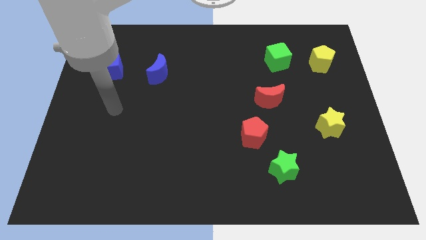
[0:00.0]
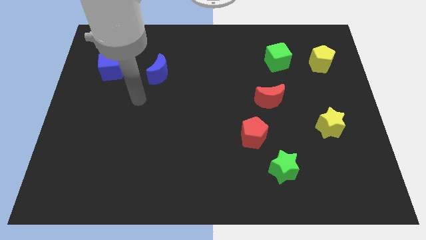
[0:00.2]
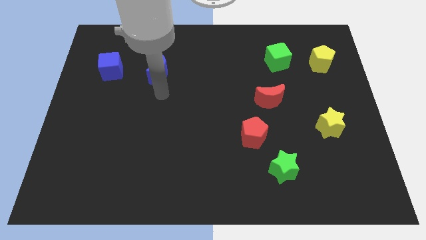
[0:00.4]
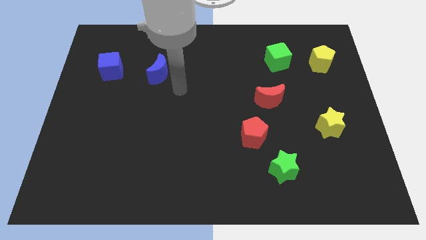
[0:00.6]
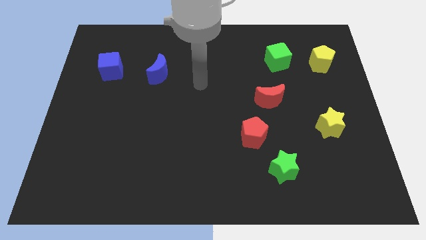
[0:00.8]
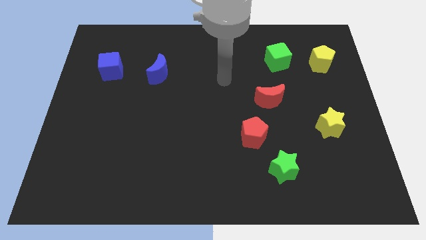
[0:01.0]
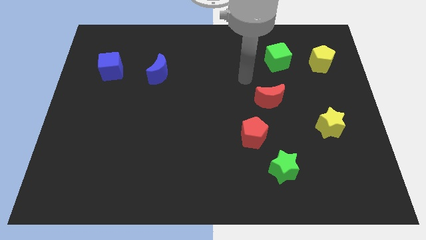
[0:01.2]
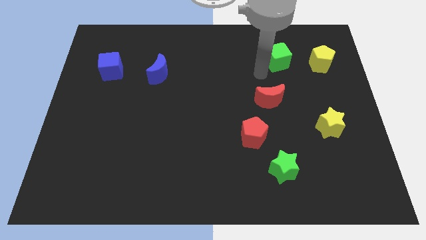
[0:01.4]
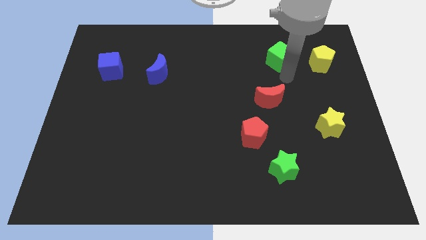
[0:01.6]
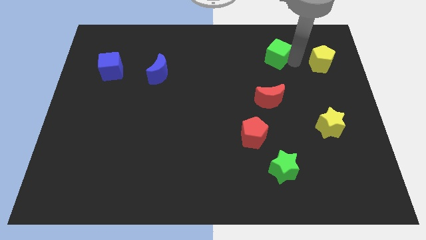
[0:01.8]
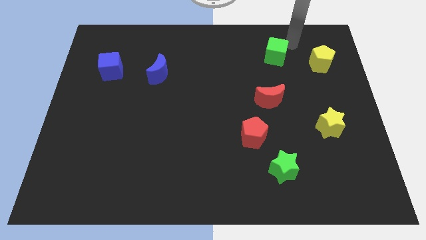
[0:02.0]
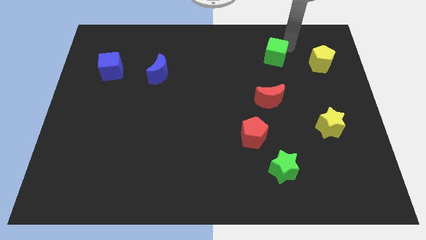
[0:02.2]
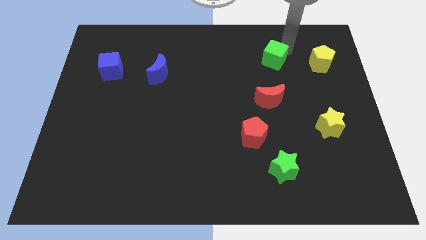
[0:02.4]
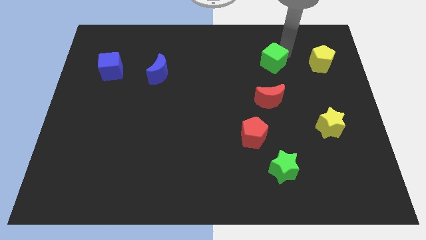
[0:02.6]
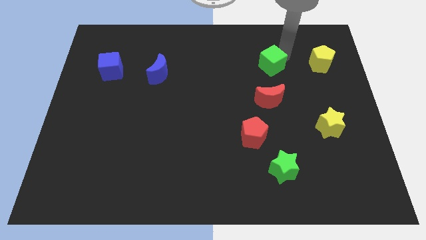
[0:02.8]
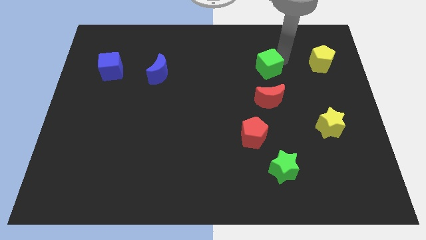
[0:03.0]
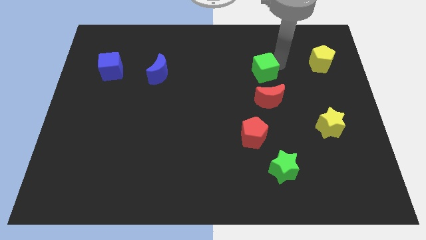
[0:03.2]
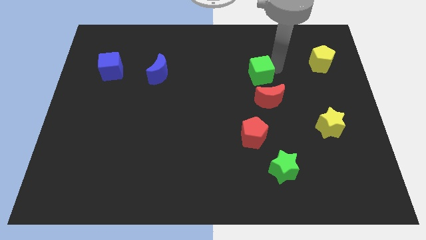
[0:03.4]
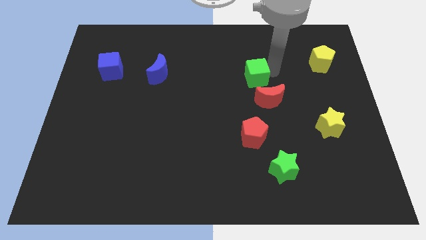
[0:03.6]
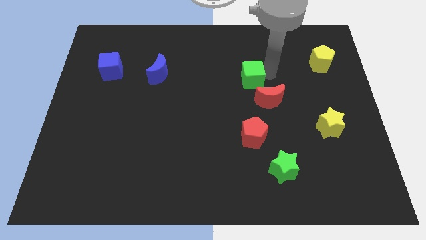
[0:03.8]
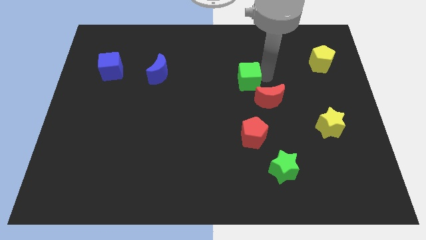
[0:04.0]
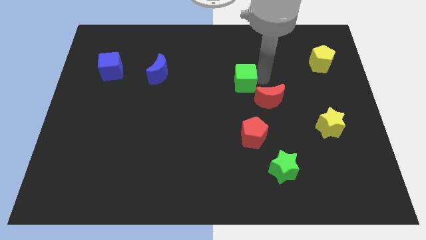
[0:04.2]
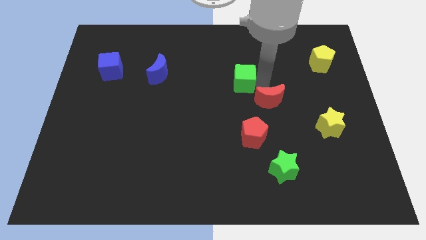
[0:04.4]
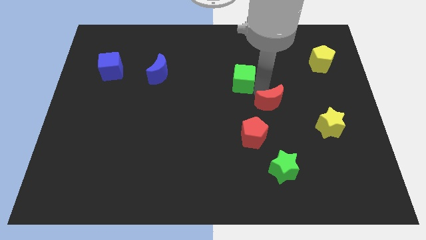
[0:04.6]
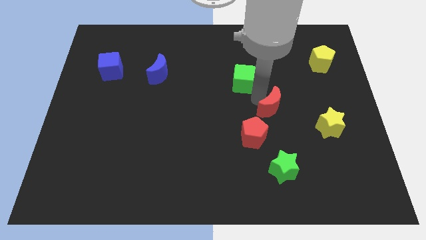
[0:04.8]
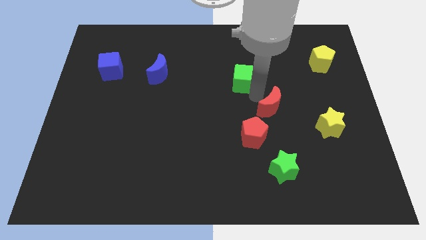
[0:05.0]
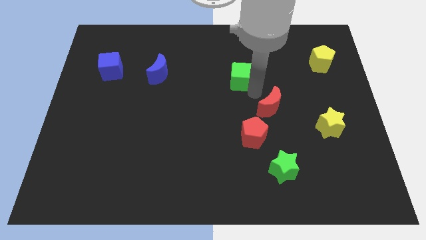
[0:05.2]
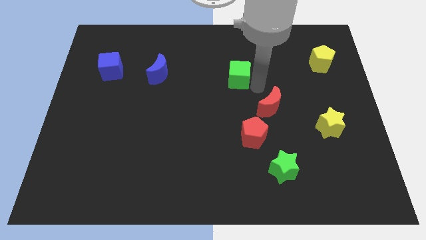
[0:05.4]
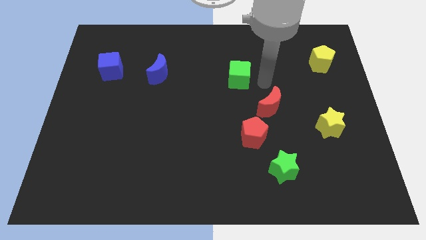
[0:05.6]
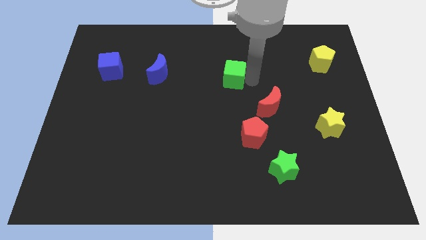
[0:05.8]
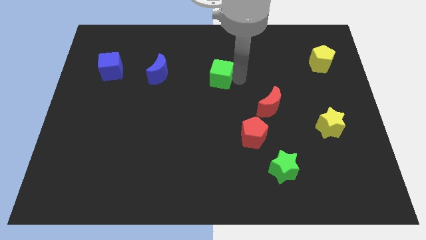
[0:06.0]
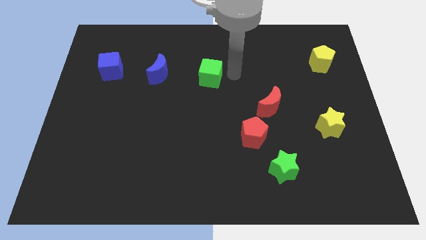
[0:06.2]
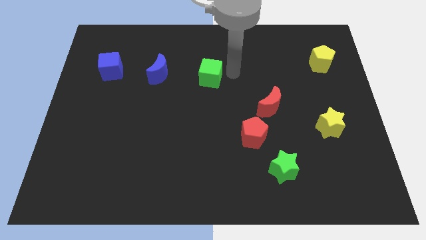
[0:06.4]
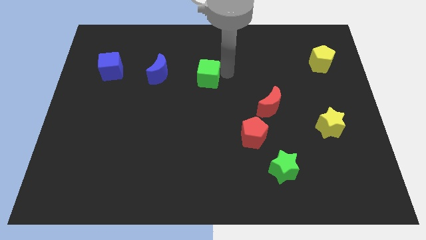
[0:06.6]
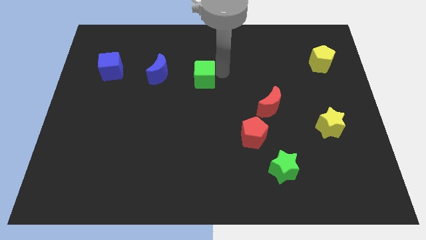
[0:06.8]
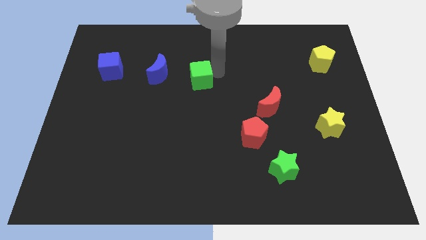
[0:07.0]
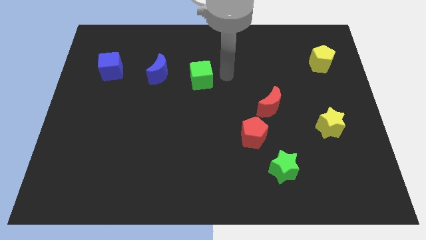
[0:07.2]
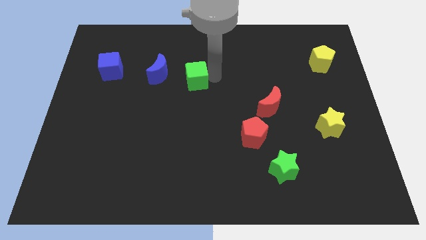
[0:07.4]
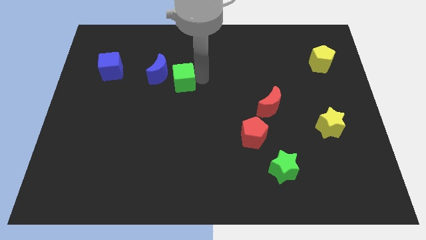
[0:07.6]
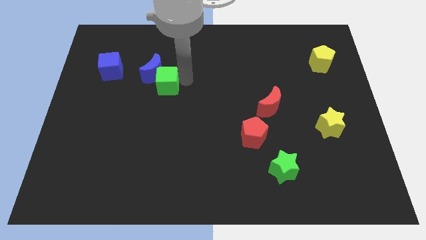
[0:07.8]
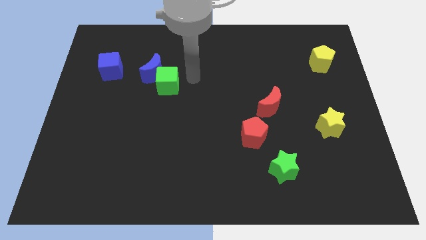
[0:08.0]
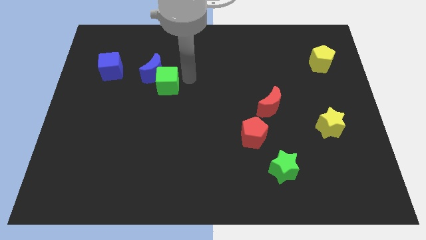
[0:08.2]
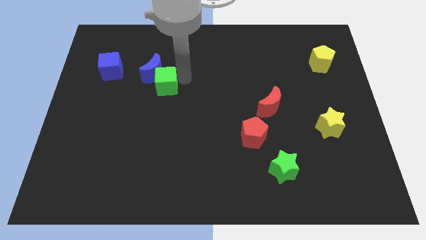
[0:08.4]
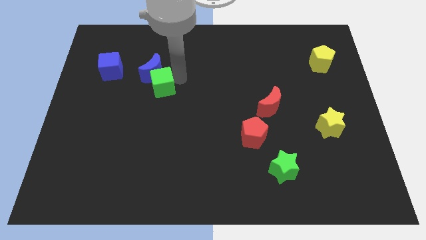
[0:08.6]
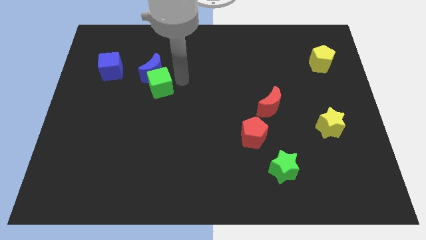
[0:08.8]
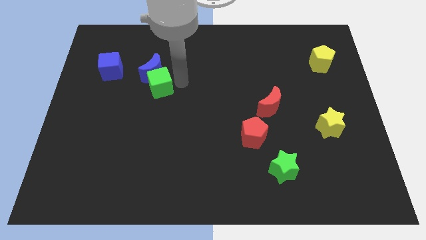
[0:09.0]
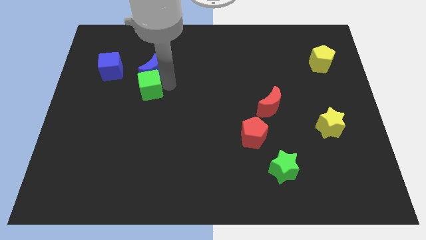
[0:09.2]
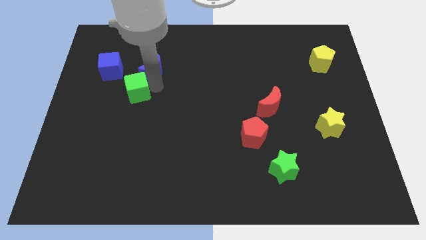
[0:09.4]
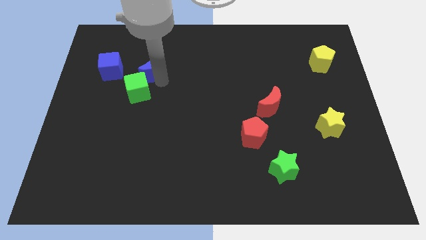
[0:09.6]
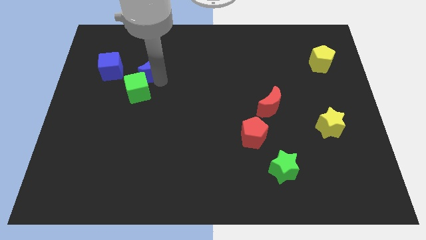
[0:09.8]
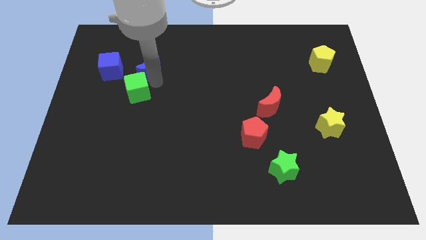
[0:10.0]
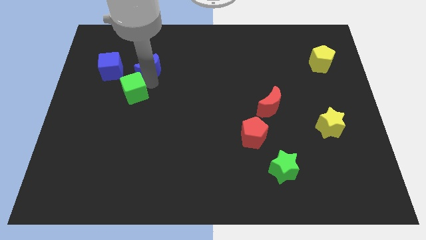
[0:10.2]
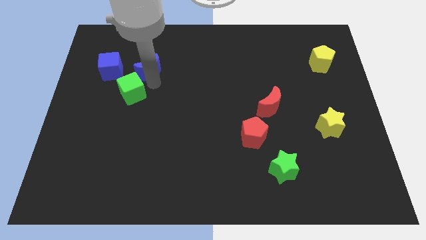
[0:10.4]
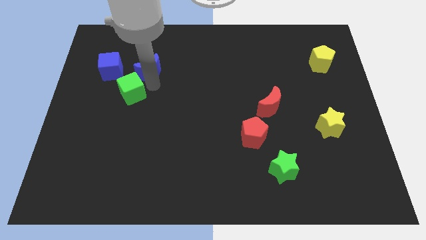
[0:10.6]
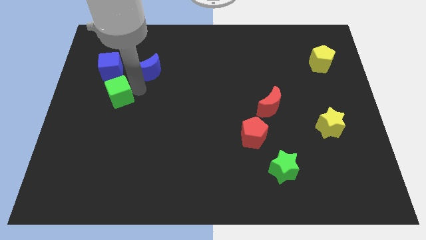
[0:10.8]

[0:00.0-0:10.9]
slide the green cube to the bottom of the blue cube

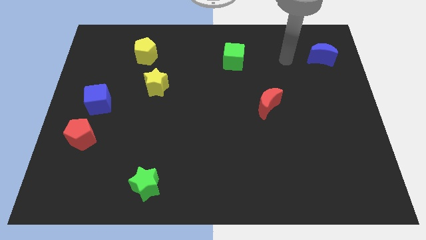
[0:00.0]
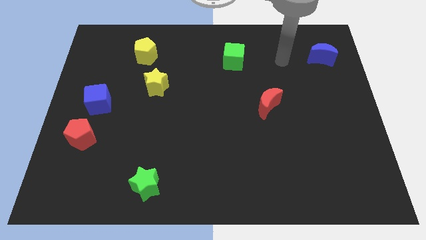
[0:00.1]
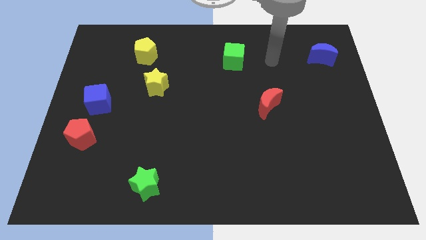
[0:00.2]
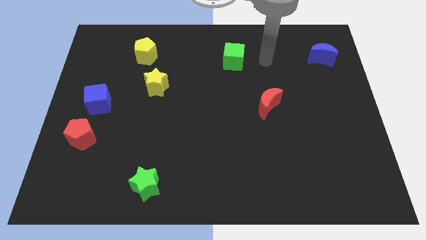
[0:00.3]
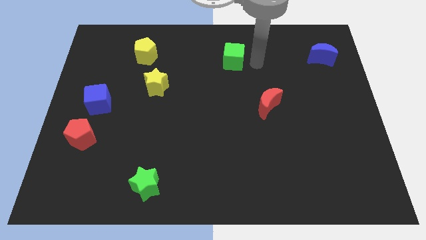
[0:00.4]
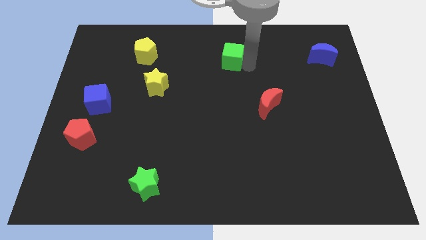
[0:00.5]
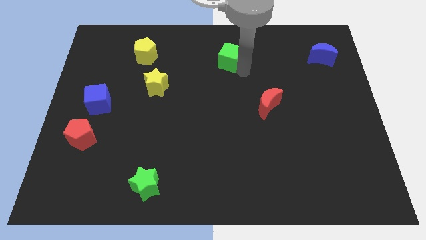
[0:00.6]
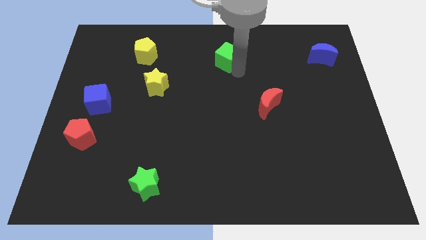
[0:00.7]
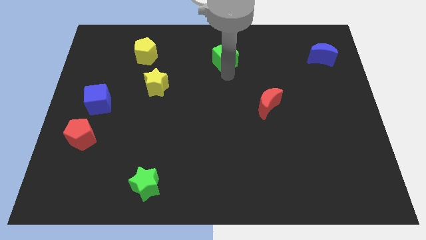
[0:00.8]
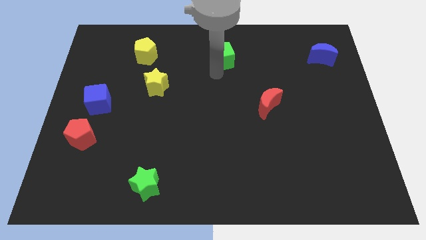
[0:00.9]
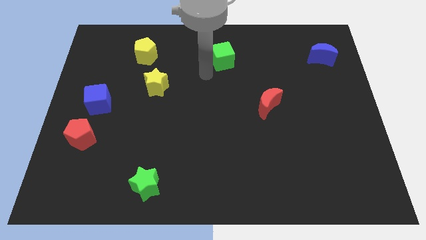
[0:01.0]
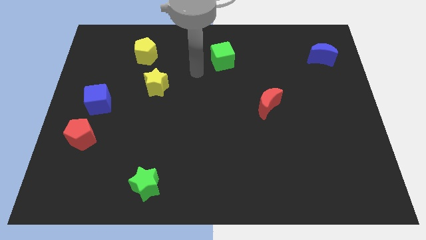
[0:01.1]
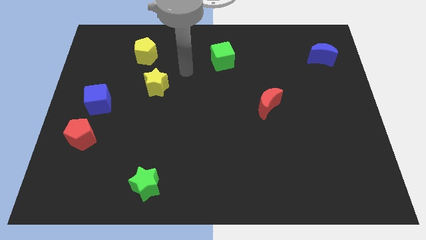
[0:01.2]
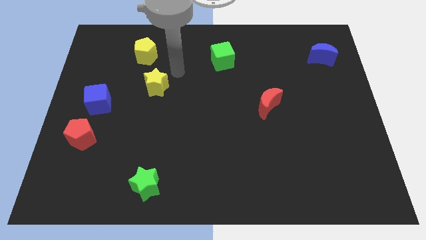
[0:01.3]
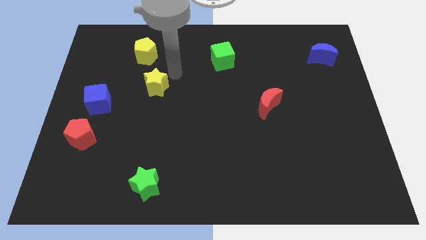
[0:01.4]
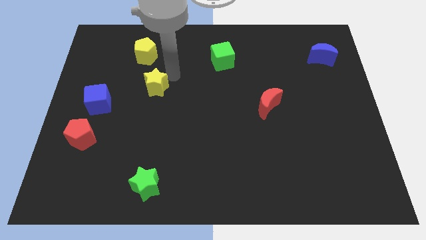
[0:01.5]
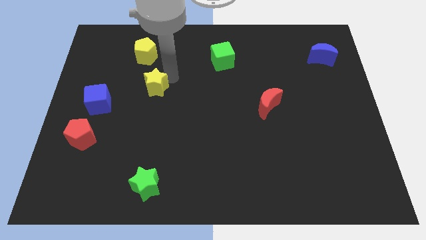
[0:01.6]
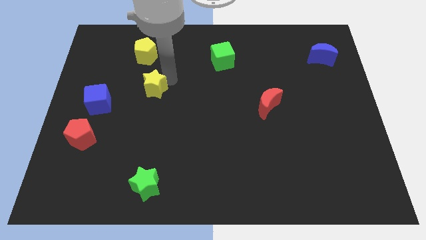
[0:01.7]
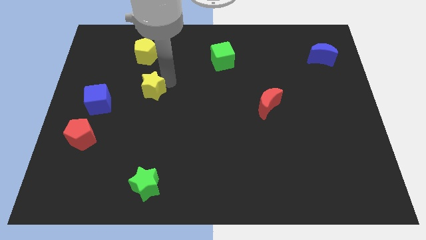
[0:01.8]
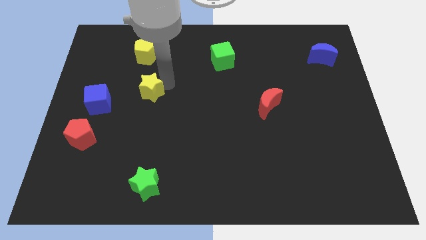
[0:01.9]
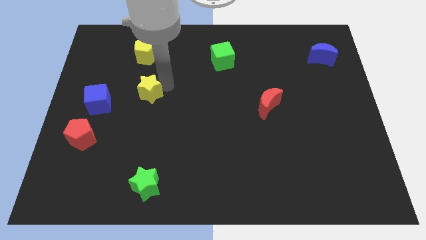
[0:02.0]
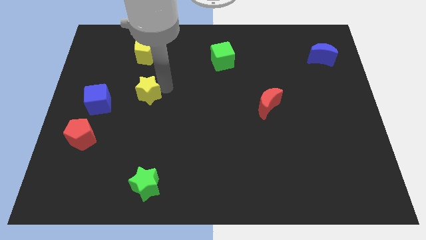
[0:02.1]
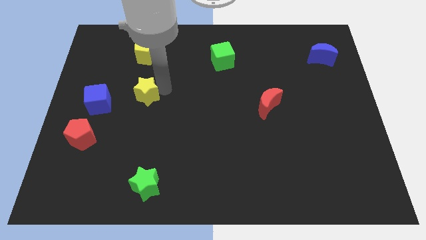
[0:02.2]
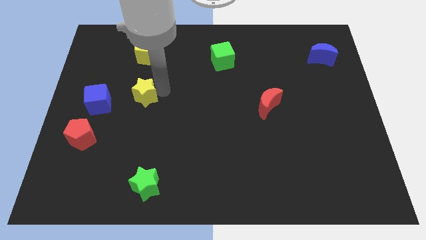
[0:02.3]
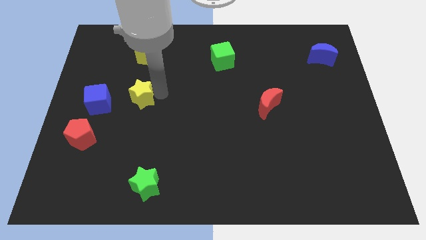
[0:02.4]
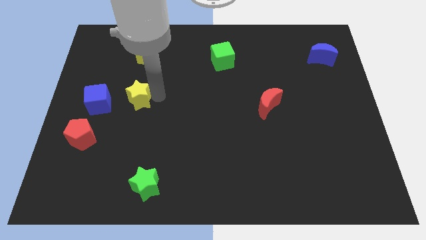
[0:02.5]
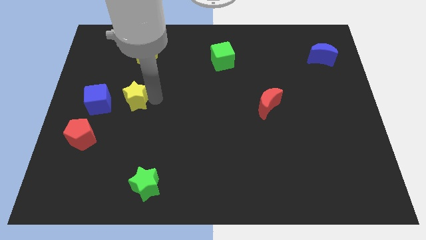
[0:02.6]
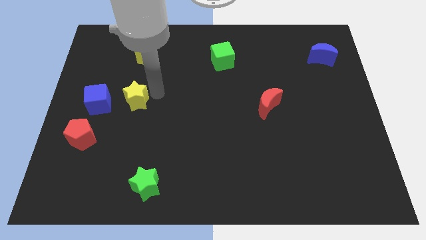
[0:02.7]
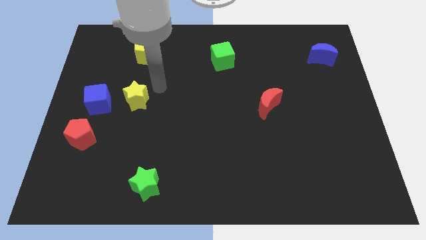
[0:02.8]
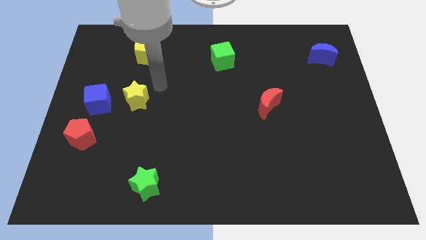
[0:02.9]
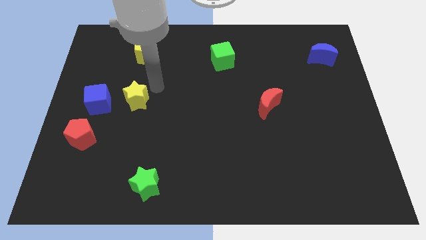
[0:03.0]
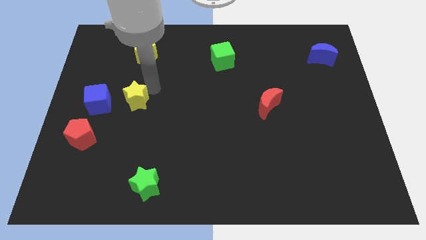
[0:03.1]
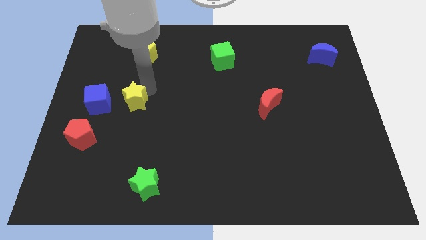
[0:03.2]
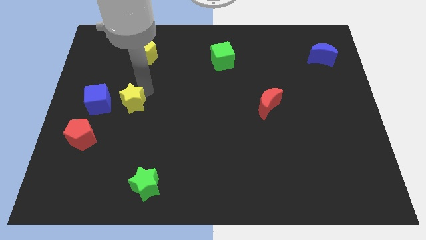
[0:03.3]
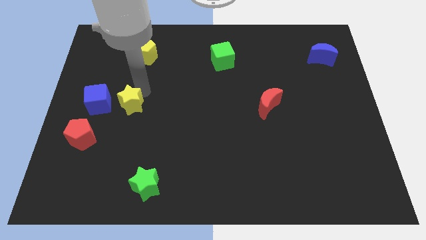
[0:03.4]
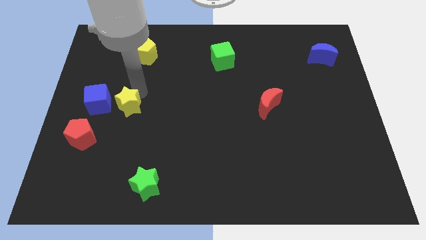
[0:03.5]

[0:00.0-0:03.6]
put the yellow star diagonally up and to the right of the red pentagon
